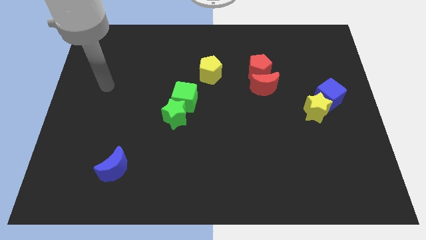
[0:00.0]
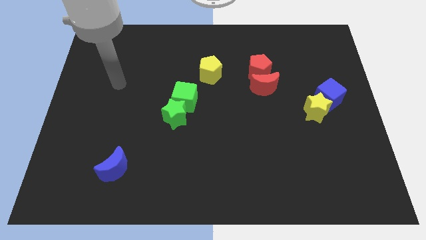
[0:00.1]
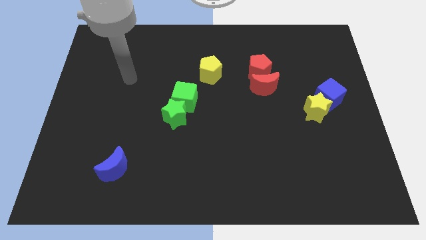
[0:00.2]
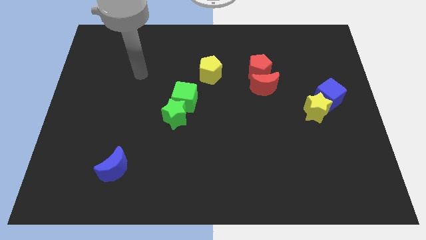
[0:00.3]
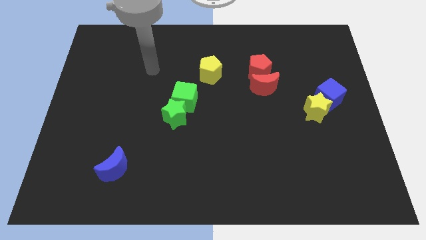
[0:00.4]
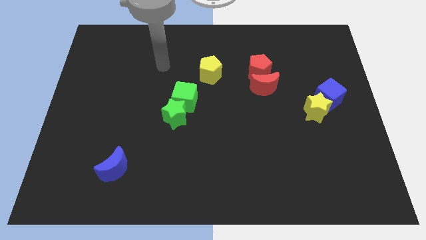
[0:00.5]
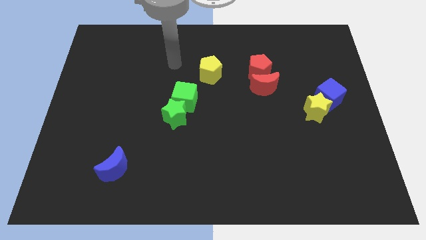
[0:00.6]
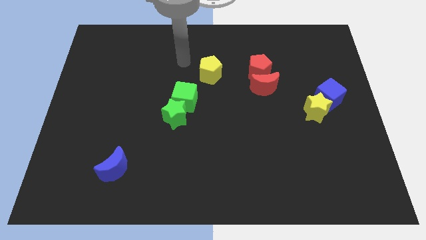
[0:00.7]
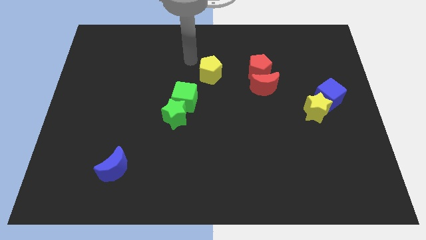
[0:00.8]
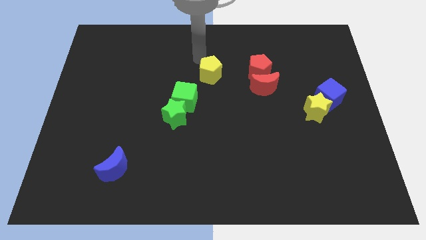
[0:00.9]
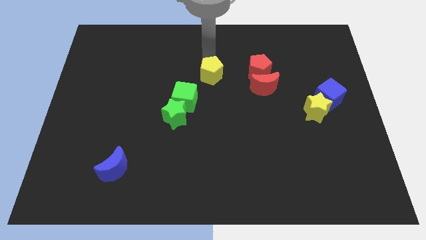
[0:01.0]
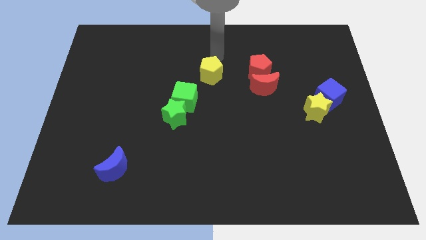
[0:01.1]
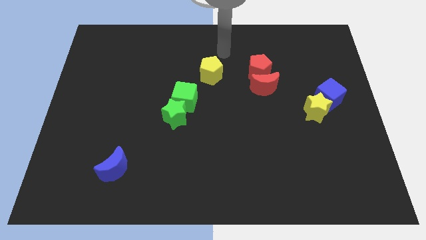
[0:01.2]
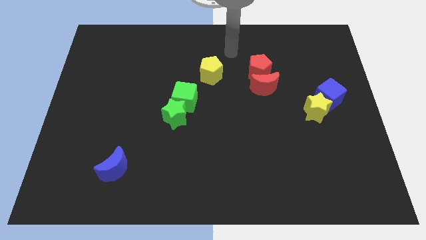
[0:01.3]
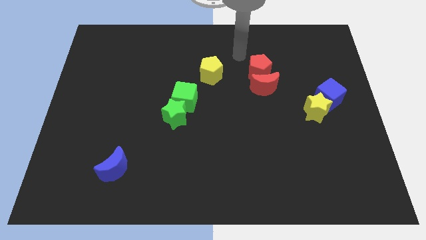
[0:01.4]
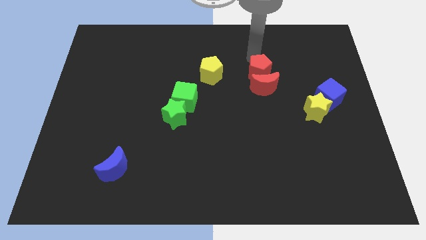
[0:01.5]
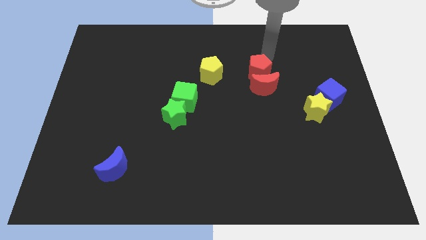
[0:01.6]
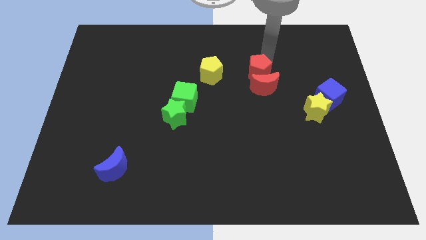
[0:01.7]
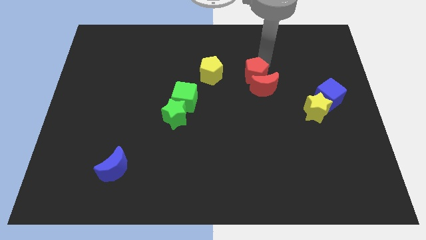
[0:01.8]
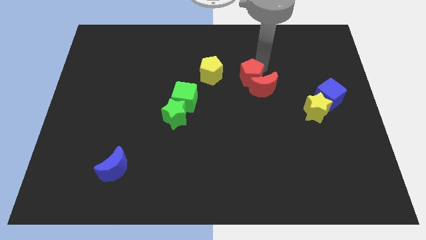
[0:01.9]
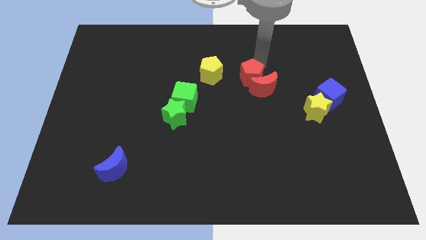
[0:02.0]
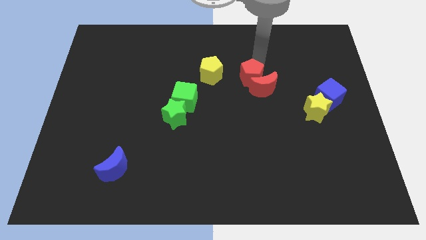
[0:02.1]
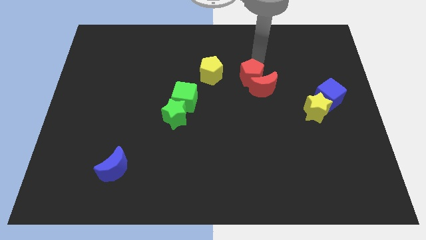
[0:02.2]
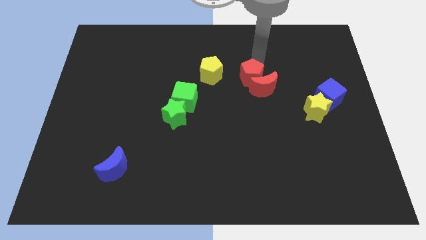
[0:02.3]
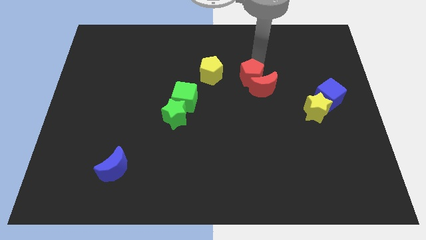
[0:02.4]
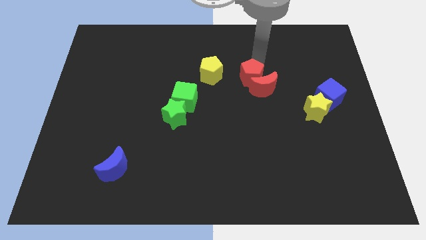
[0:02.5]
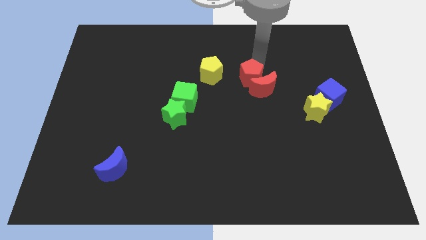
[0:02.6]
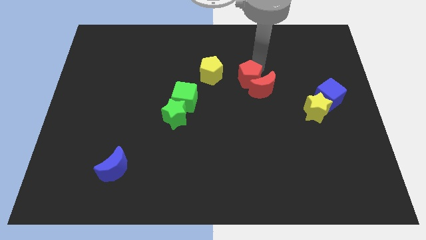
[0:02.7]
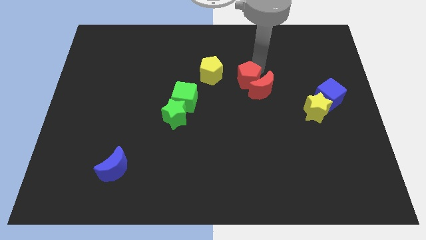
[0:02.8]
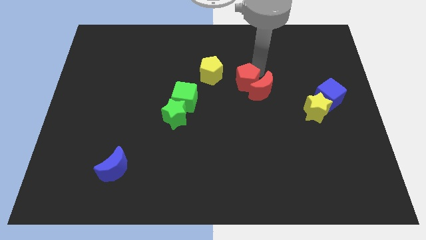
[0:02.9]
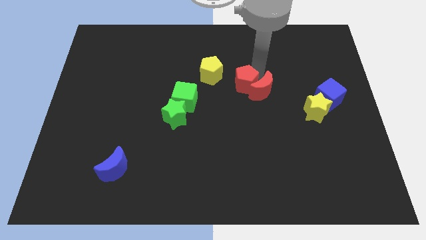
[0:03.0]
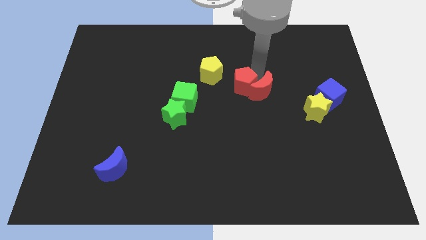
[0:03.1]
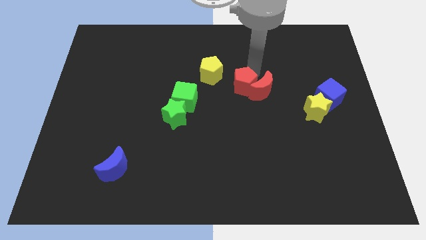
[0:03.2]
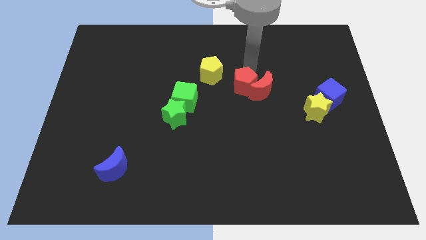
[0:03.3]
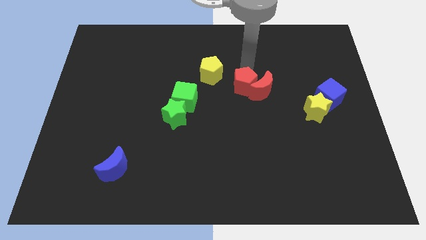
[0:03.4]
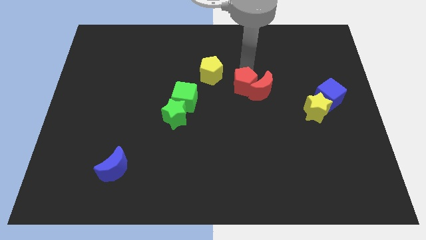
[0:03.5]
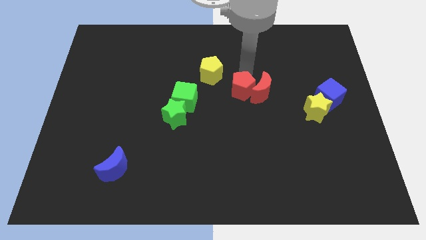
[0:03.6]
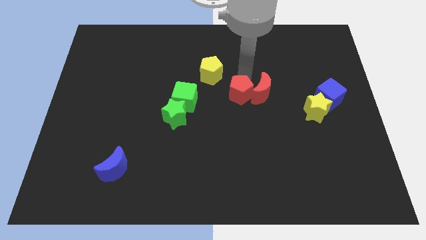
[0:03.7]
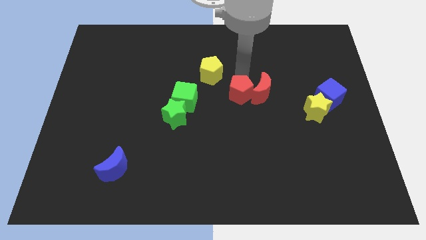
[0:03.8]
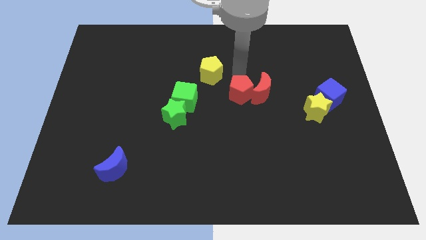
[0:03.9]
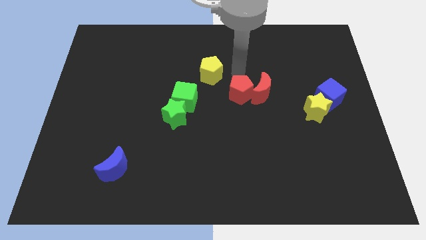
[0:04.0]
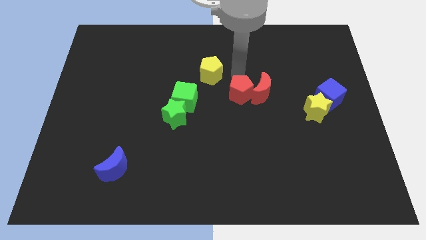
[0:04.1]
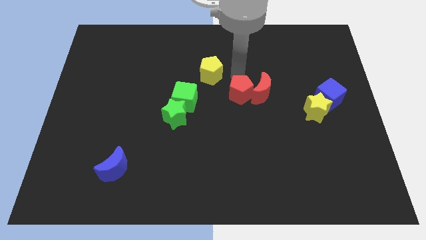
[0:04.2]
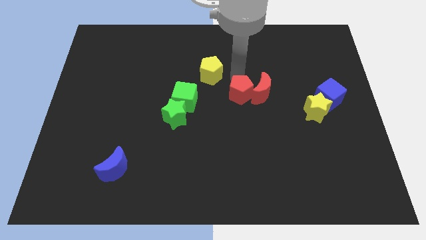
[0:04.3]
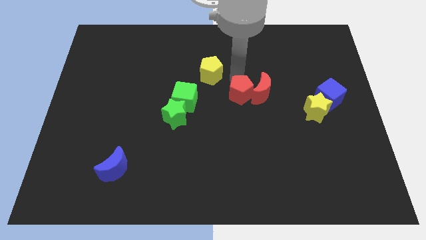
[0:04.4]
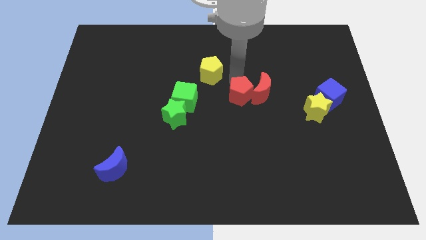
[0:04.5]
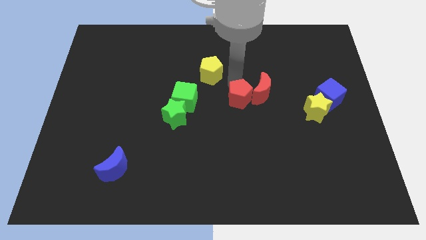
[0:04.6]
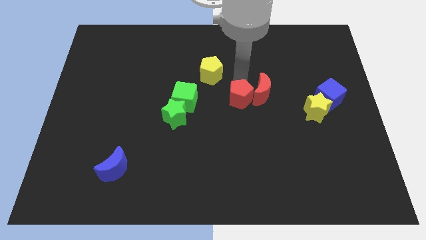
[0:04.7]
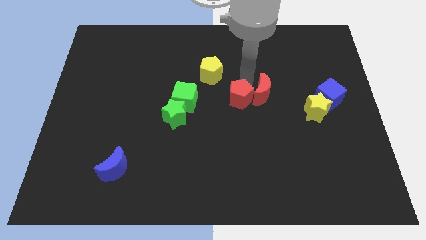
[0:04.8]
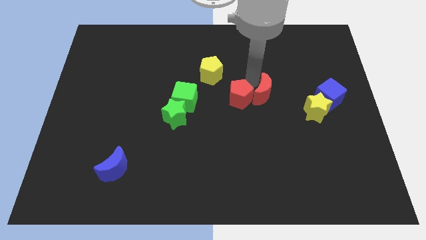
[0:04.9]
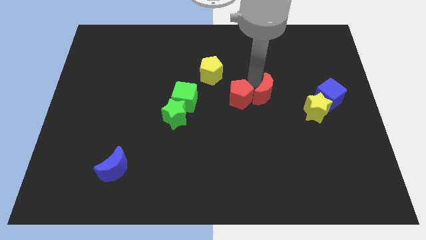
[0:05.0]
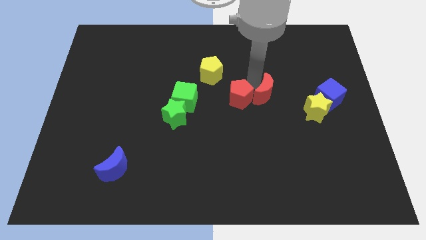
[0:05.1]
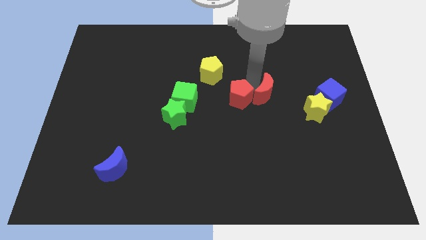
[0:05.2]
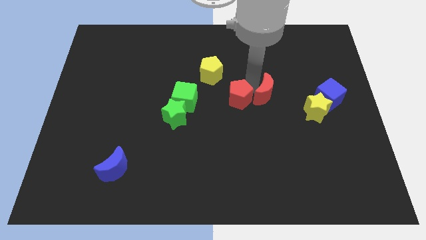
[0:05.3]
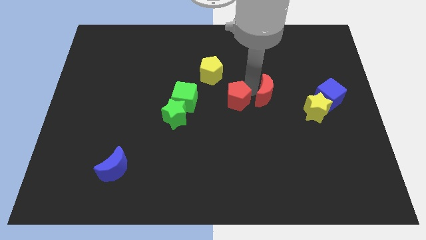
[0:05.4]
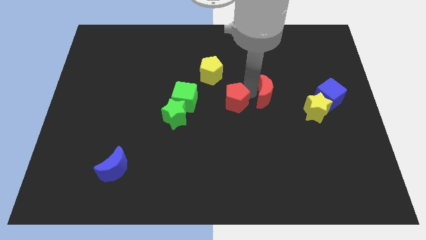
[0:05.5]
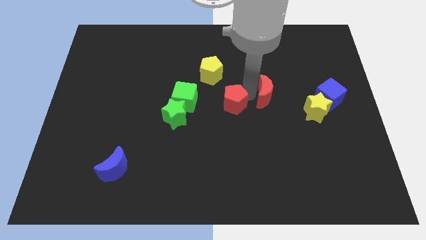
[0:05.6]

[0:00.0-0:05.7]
slide the red pentagon to the right side of the green star

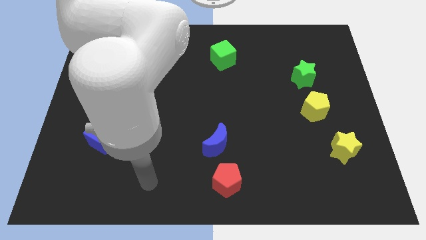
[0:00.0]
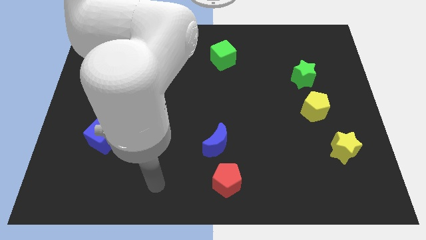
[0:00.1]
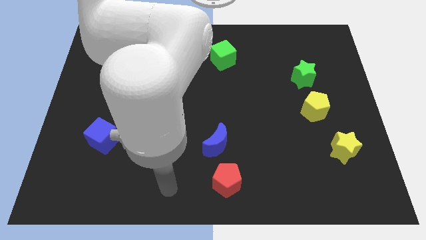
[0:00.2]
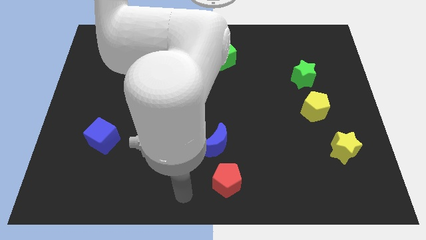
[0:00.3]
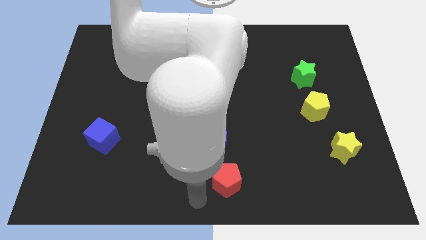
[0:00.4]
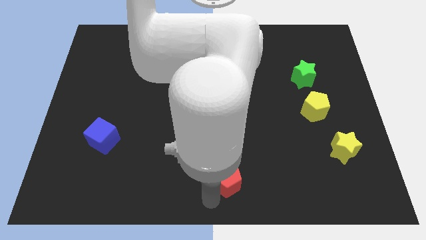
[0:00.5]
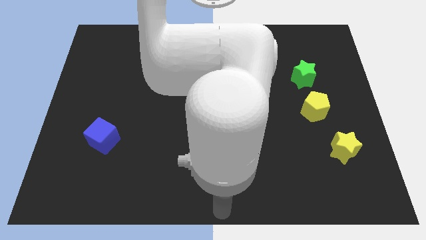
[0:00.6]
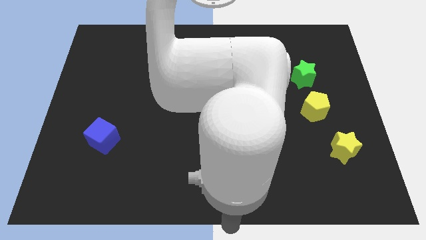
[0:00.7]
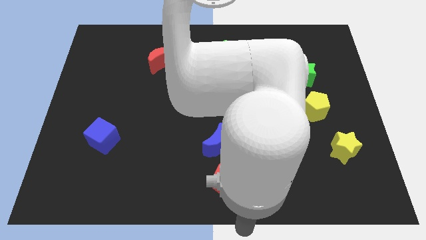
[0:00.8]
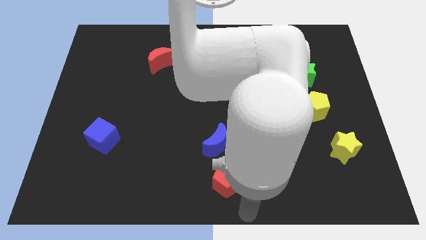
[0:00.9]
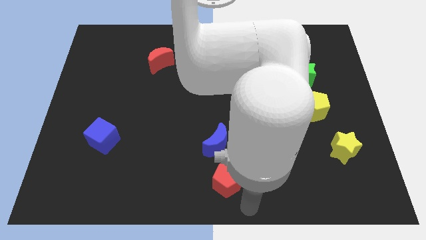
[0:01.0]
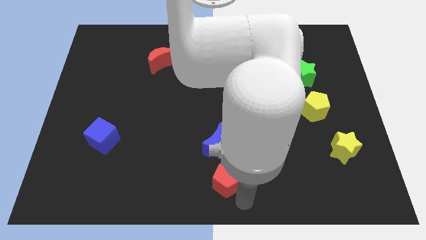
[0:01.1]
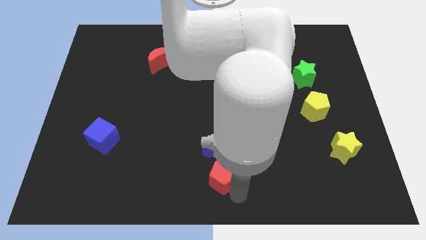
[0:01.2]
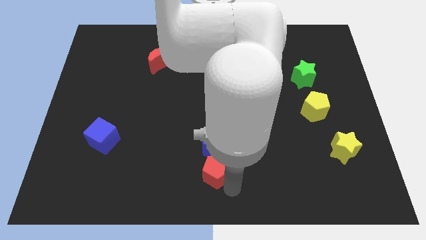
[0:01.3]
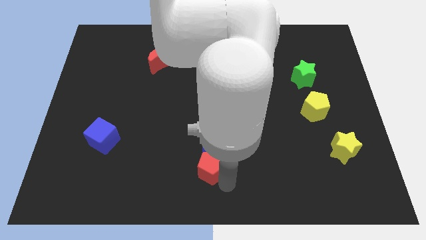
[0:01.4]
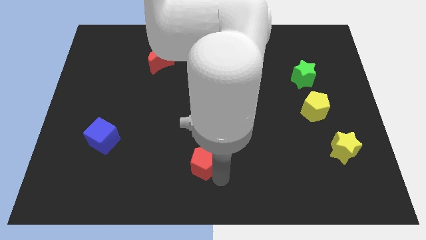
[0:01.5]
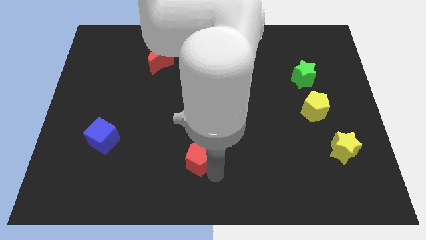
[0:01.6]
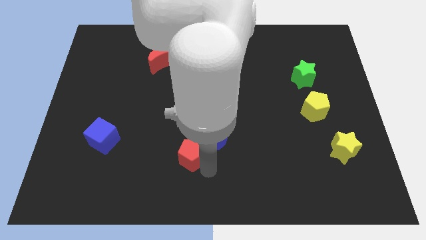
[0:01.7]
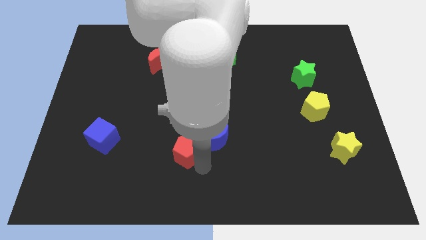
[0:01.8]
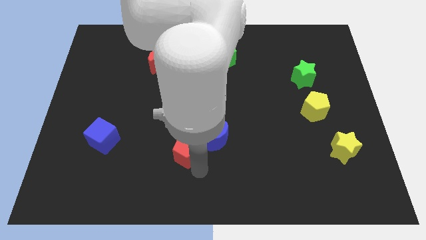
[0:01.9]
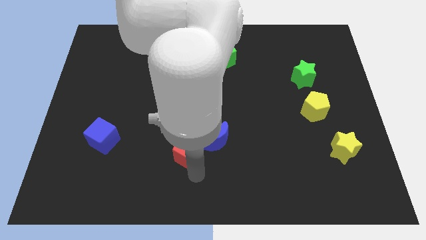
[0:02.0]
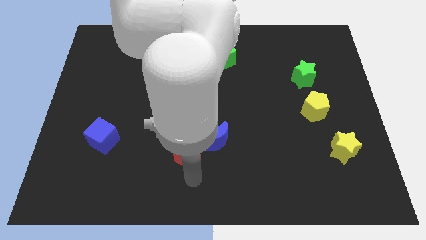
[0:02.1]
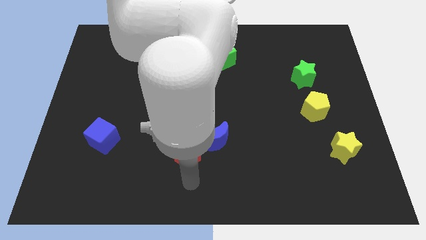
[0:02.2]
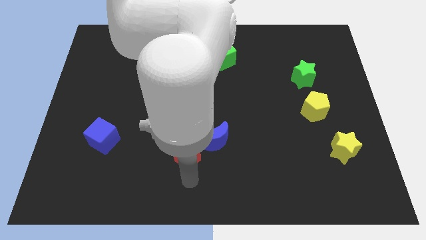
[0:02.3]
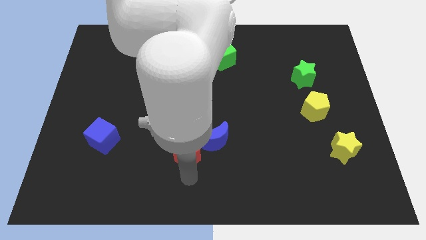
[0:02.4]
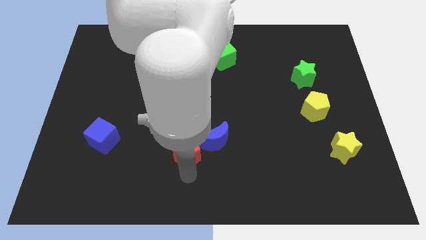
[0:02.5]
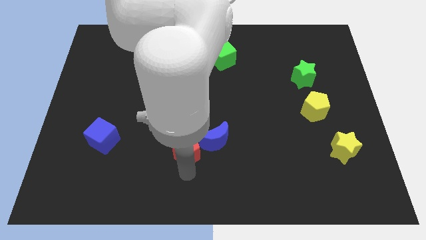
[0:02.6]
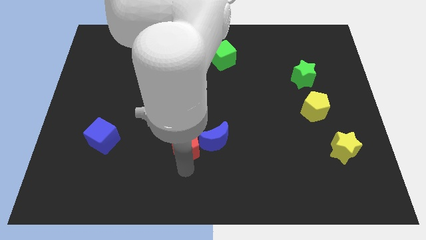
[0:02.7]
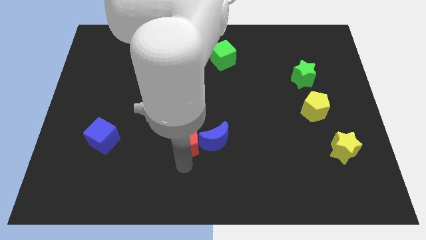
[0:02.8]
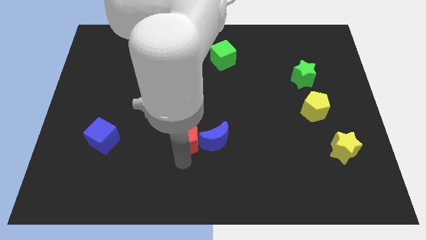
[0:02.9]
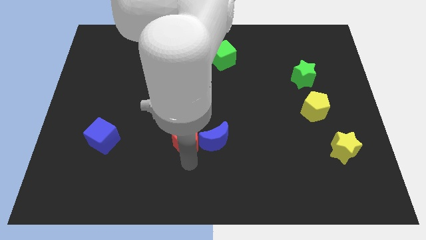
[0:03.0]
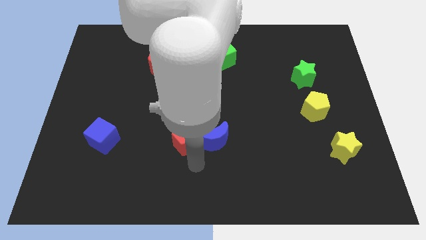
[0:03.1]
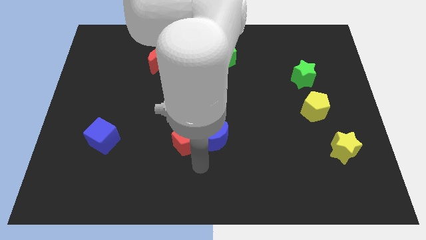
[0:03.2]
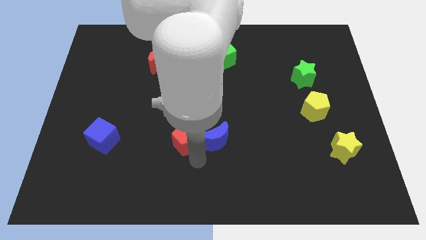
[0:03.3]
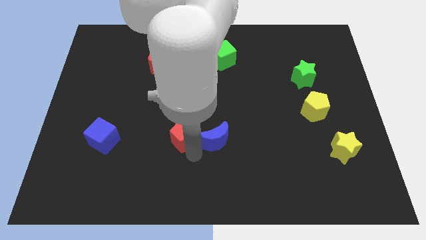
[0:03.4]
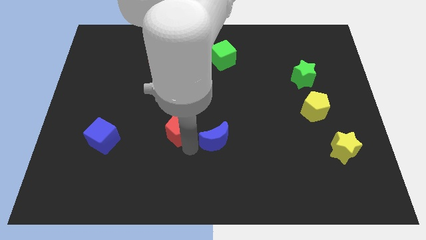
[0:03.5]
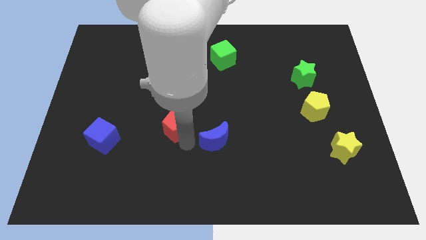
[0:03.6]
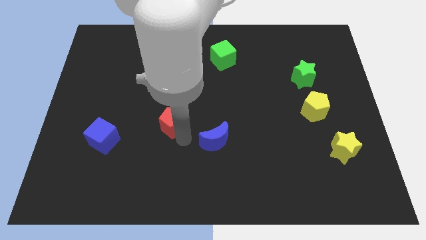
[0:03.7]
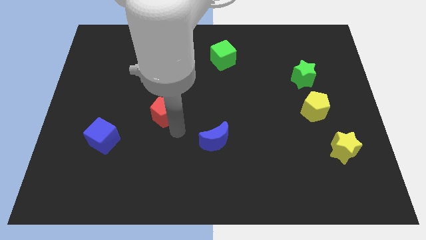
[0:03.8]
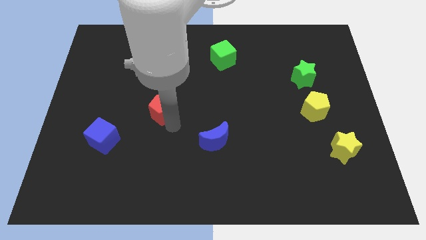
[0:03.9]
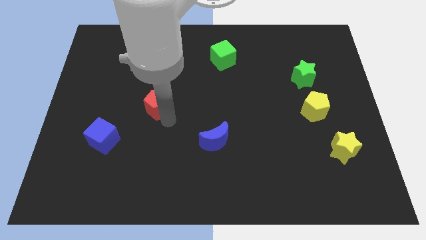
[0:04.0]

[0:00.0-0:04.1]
slide the red pentagon to the bottom side of the red moon
